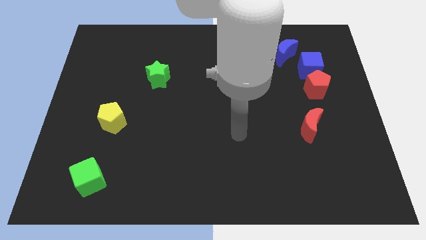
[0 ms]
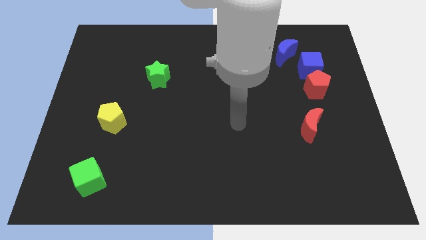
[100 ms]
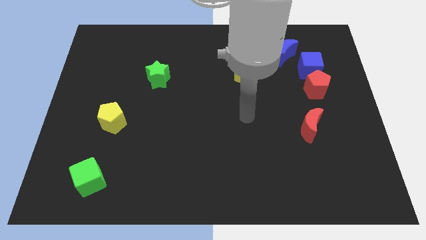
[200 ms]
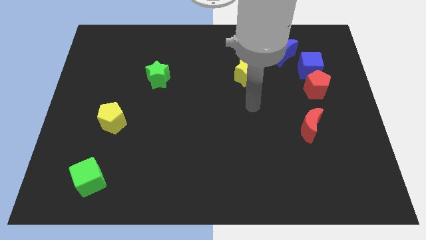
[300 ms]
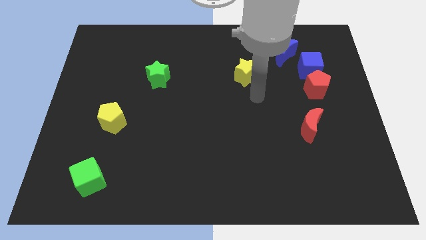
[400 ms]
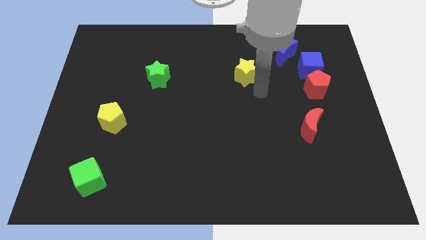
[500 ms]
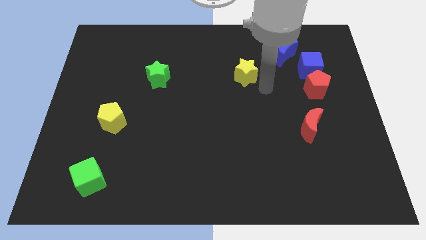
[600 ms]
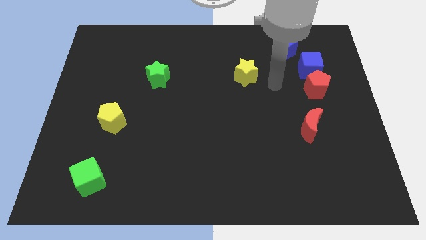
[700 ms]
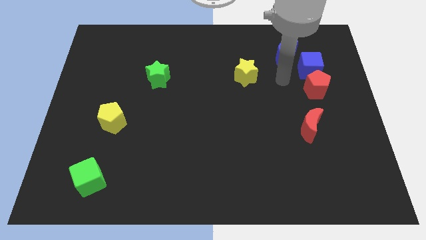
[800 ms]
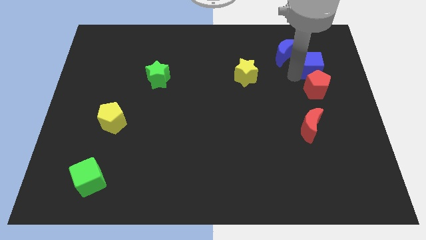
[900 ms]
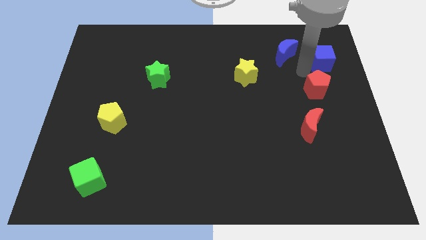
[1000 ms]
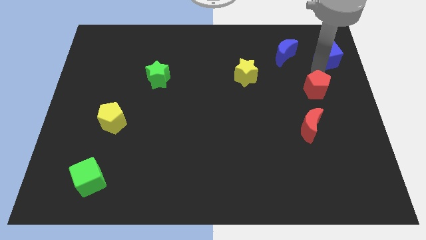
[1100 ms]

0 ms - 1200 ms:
pull the red pentagon apart from the blue cube

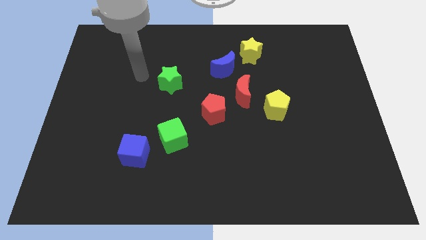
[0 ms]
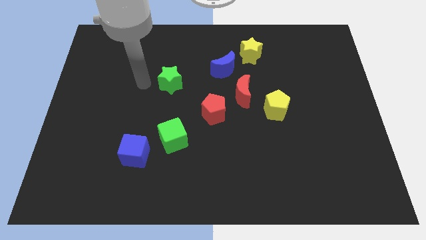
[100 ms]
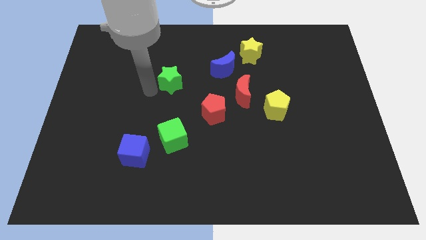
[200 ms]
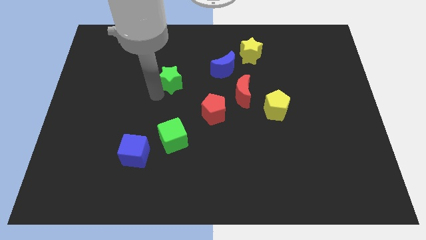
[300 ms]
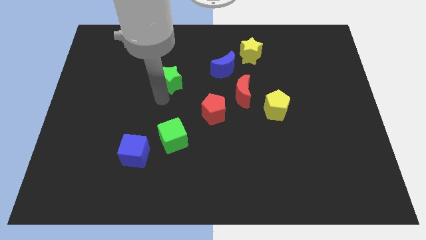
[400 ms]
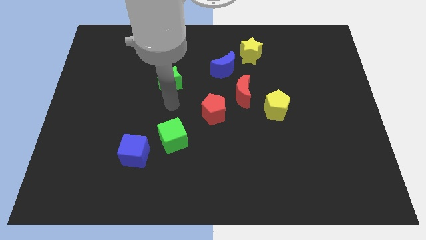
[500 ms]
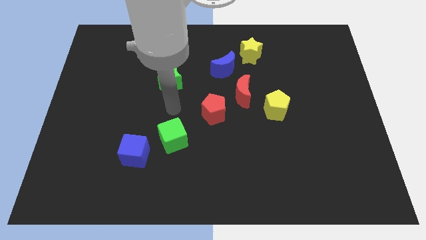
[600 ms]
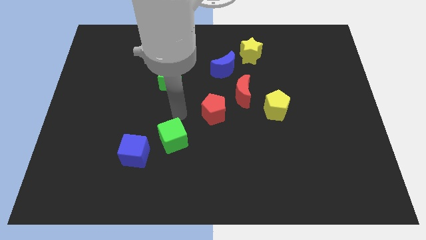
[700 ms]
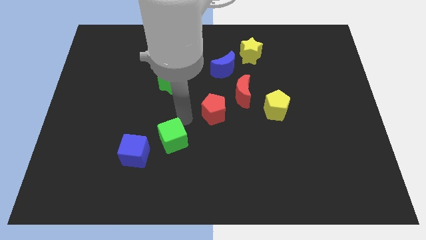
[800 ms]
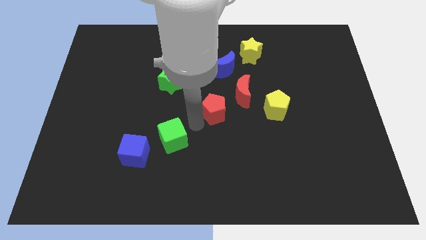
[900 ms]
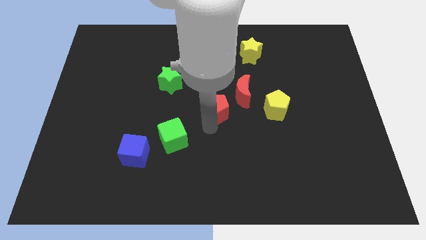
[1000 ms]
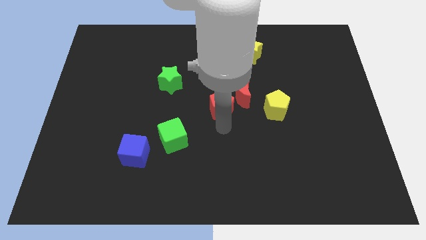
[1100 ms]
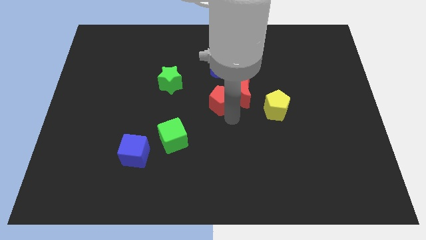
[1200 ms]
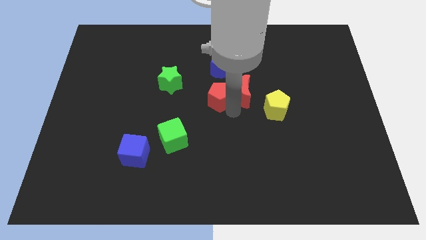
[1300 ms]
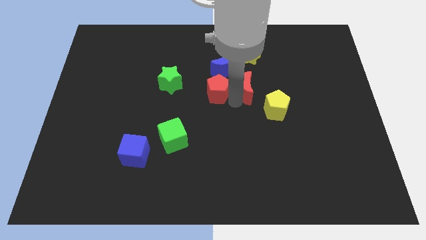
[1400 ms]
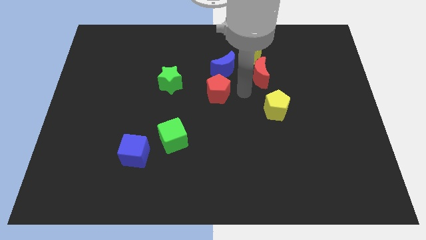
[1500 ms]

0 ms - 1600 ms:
move the red pentagon away from the red moon

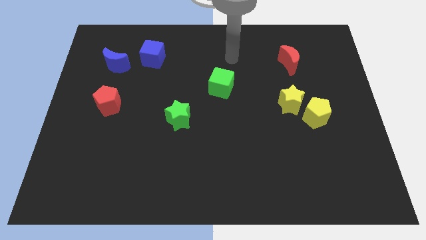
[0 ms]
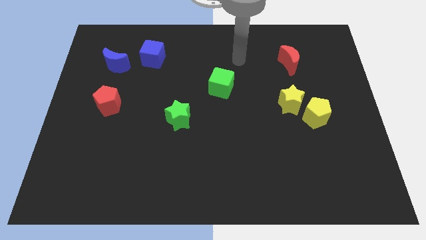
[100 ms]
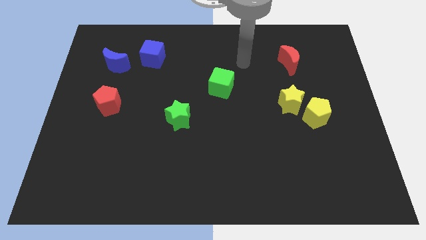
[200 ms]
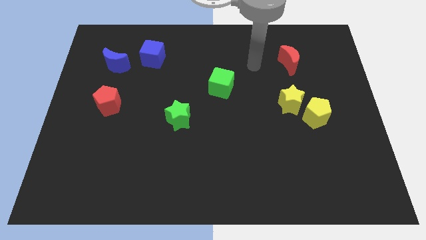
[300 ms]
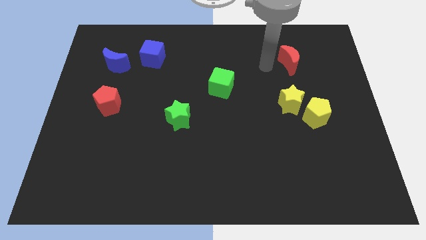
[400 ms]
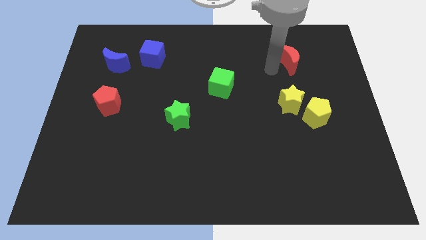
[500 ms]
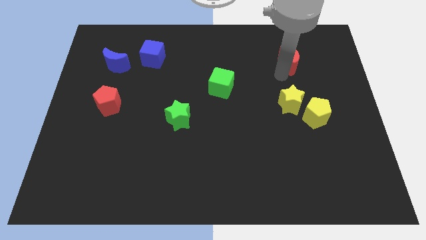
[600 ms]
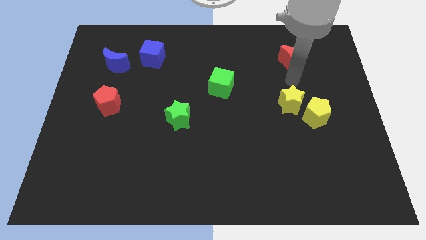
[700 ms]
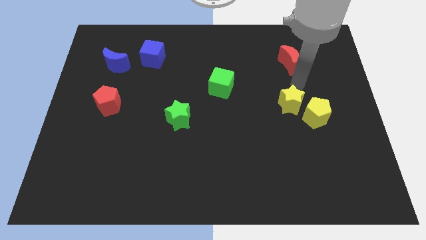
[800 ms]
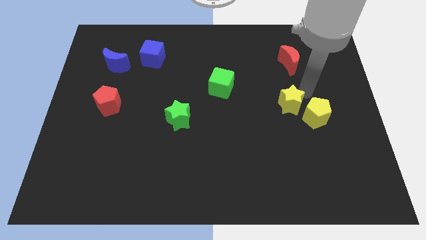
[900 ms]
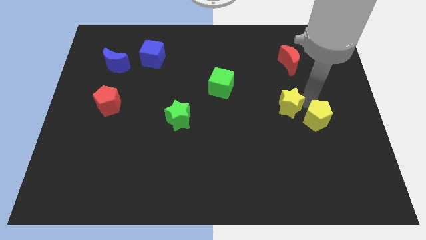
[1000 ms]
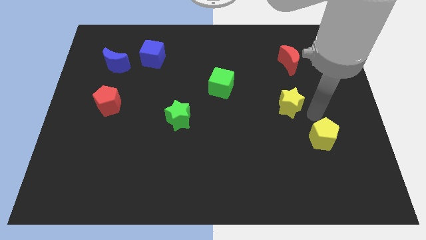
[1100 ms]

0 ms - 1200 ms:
separate the yellow star from the yellow pentagon

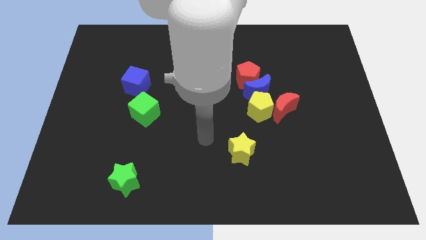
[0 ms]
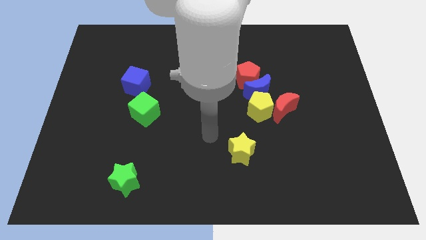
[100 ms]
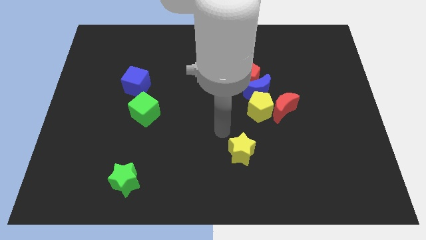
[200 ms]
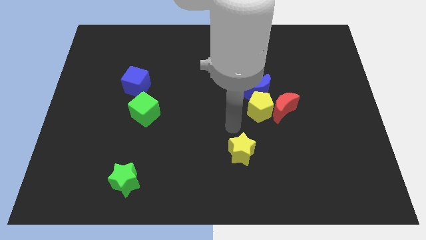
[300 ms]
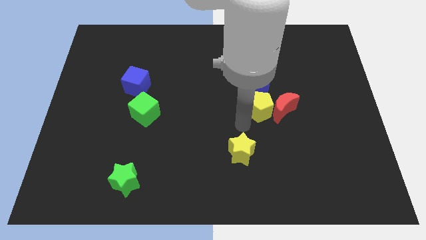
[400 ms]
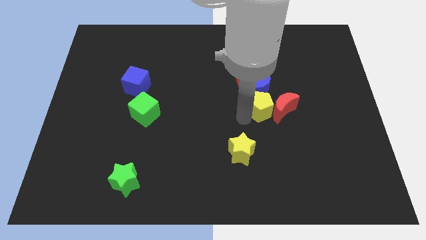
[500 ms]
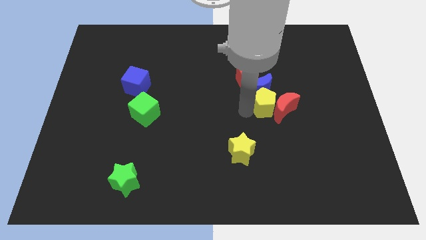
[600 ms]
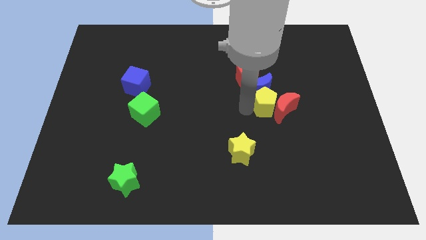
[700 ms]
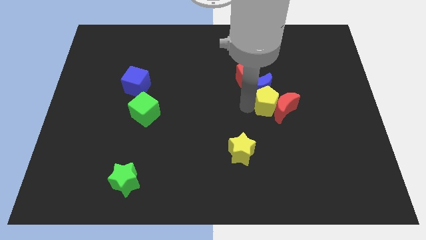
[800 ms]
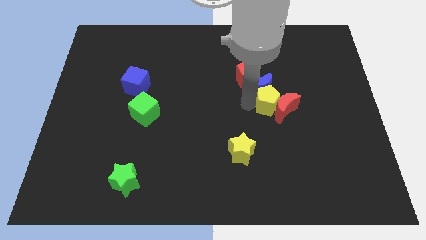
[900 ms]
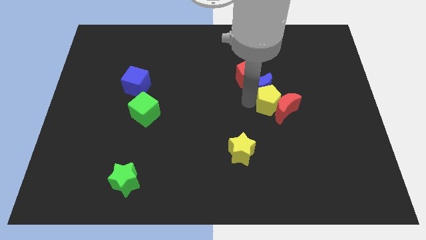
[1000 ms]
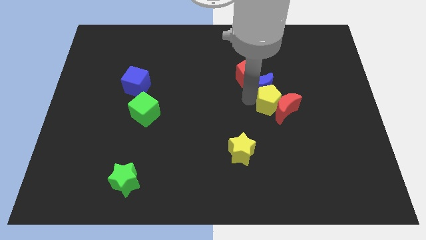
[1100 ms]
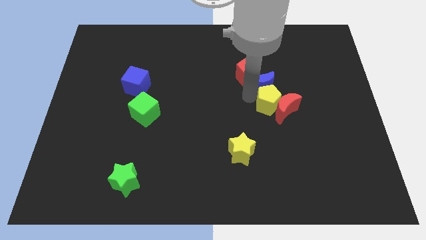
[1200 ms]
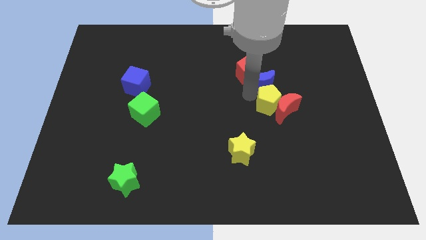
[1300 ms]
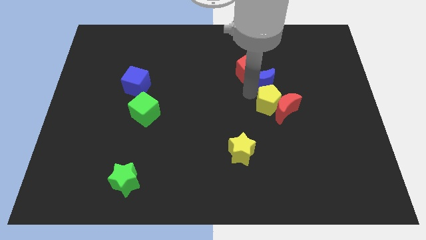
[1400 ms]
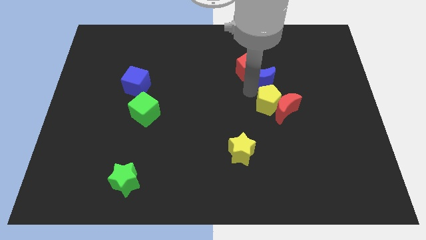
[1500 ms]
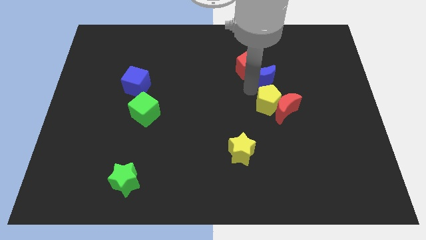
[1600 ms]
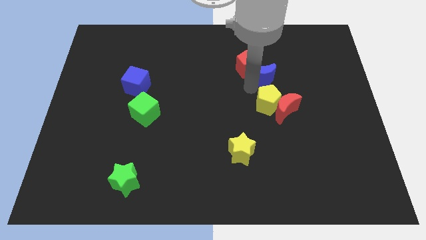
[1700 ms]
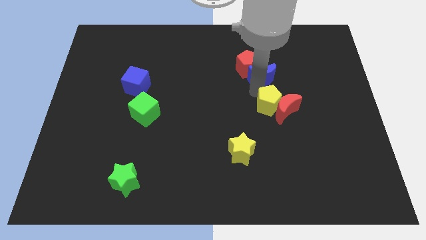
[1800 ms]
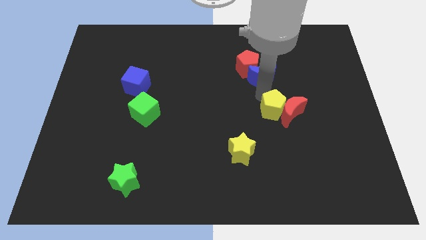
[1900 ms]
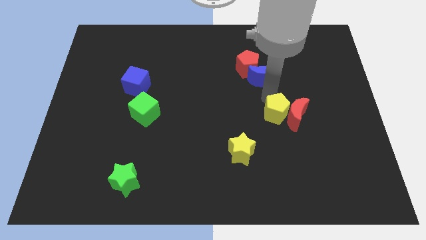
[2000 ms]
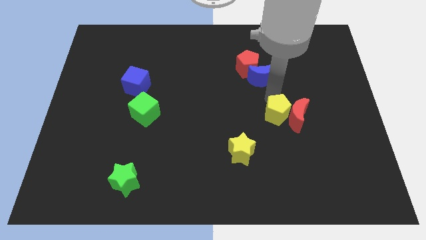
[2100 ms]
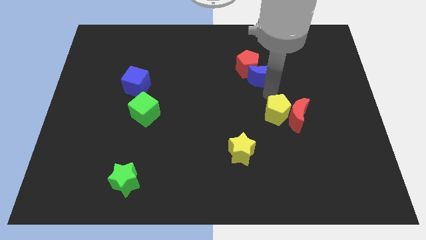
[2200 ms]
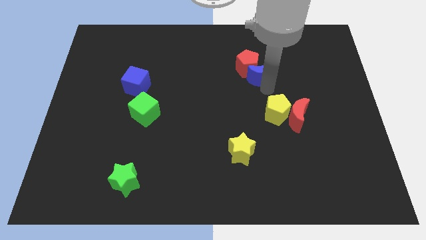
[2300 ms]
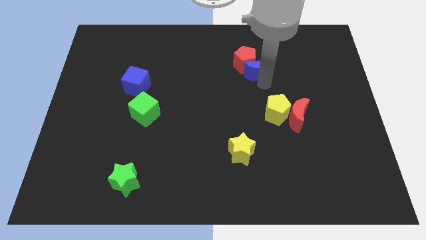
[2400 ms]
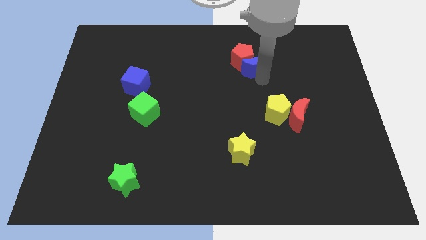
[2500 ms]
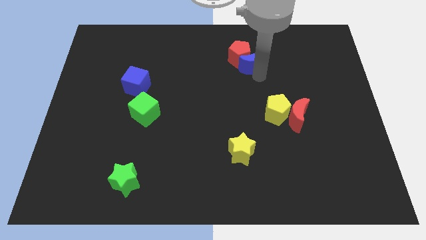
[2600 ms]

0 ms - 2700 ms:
pull the blue moon apart from the group

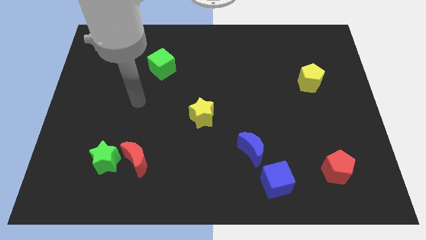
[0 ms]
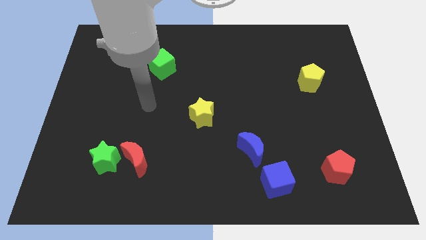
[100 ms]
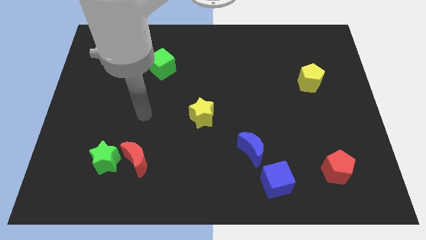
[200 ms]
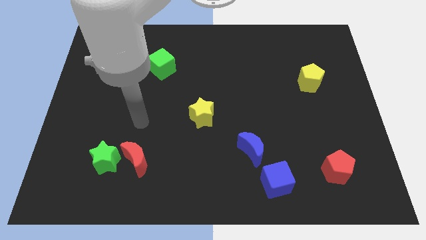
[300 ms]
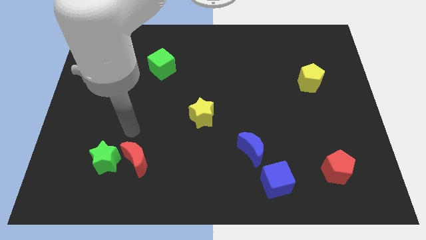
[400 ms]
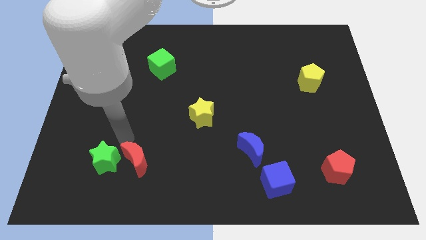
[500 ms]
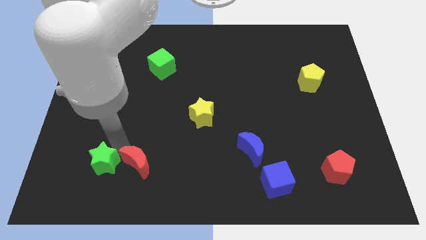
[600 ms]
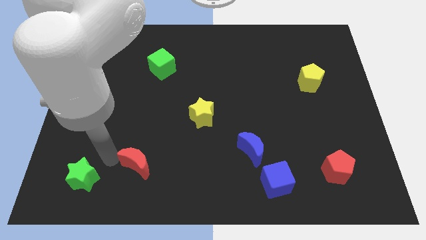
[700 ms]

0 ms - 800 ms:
separate the red moon from the green star

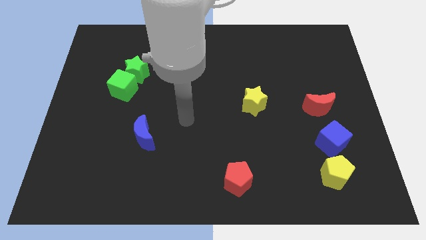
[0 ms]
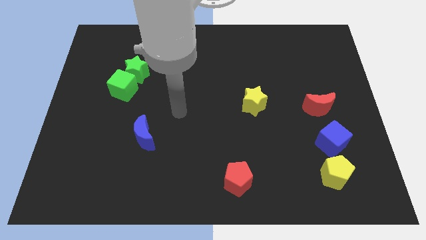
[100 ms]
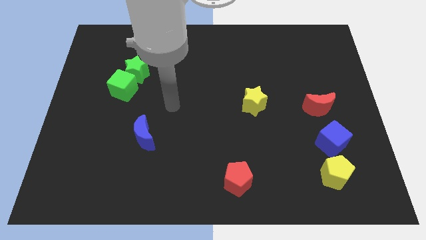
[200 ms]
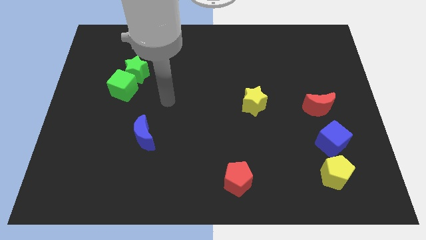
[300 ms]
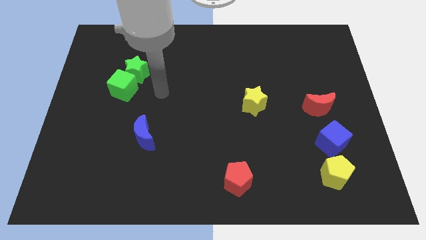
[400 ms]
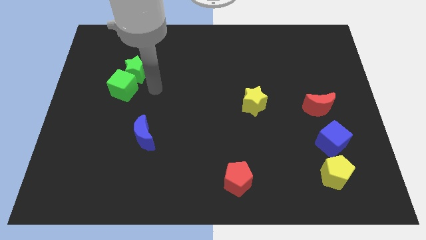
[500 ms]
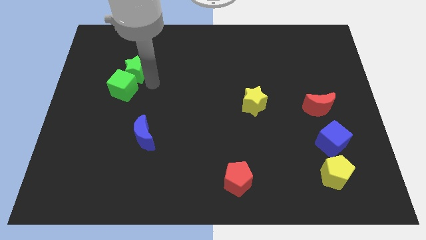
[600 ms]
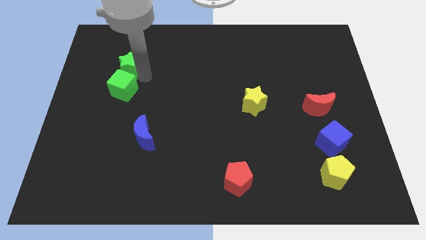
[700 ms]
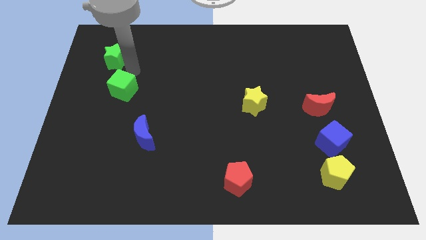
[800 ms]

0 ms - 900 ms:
separate the green cube from the green star

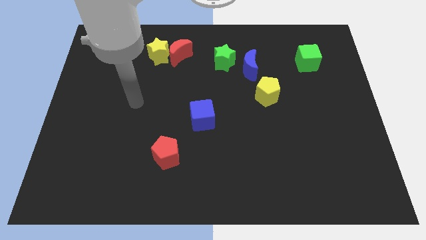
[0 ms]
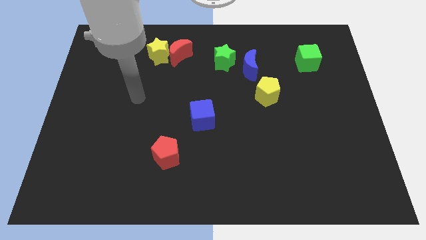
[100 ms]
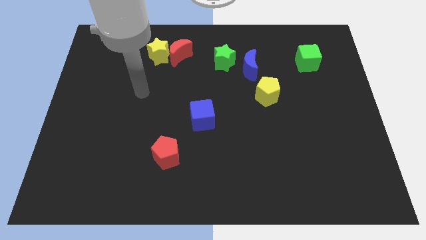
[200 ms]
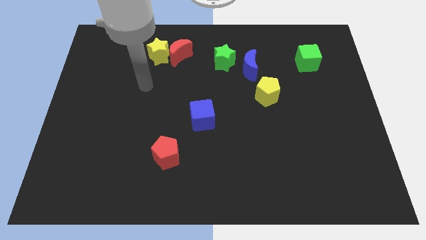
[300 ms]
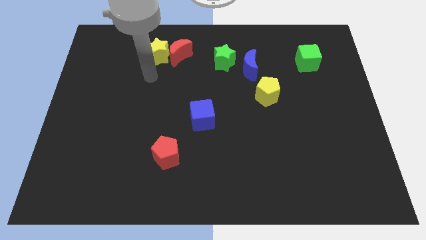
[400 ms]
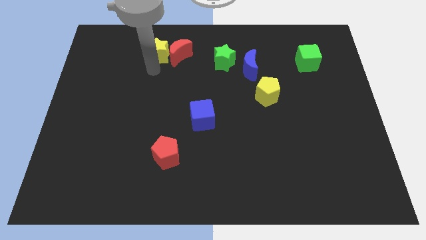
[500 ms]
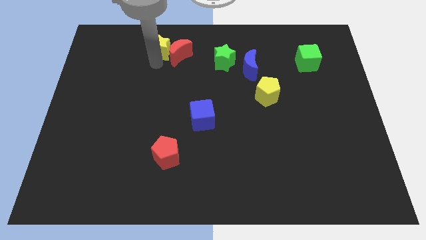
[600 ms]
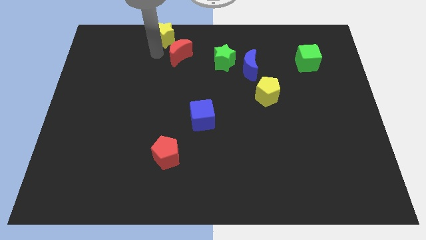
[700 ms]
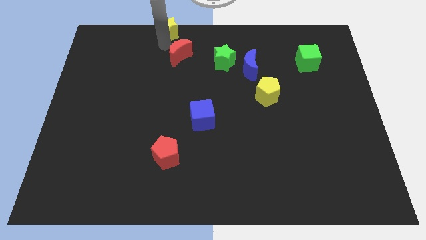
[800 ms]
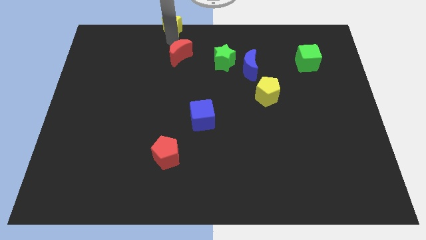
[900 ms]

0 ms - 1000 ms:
pull the red moon apart from the yellow star
